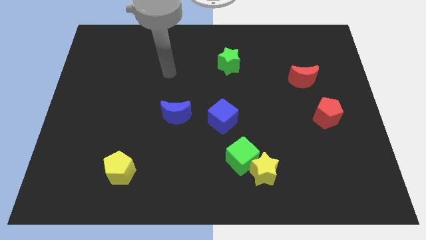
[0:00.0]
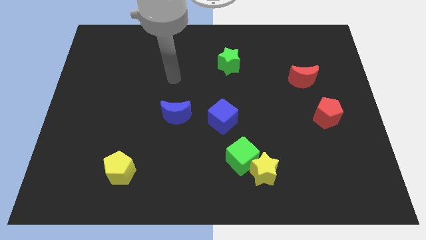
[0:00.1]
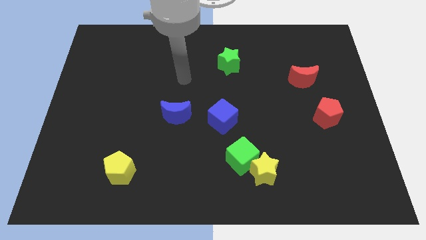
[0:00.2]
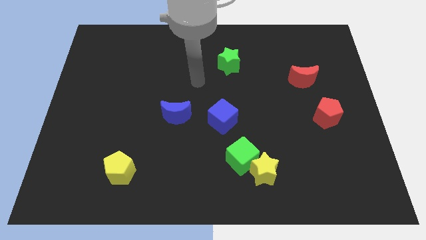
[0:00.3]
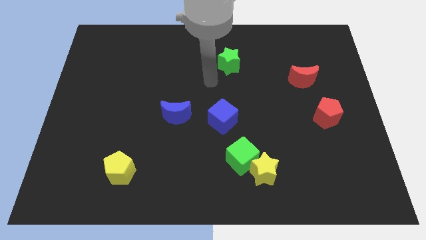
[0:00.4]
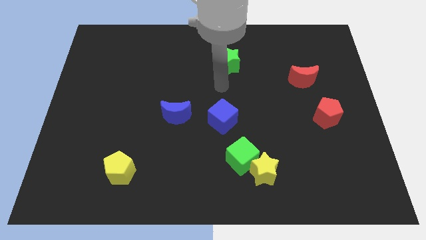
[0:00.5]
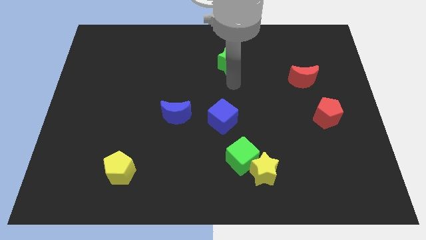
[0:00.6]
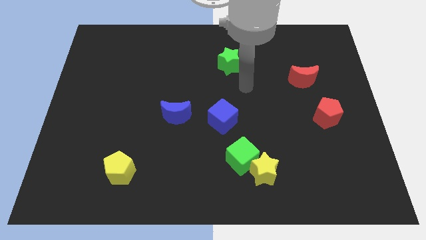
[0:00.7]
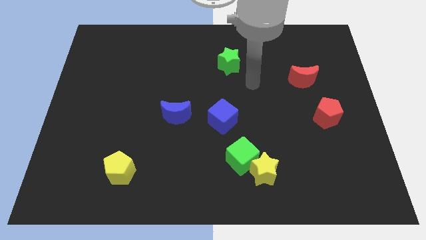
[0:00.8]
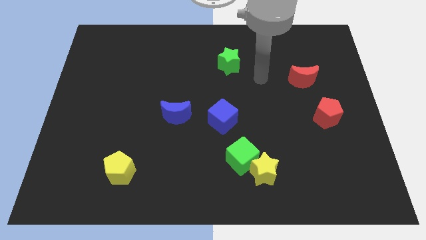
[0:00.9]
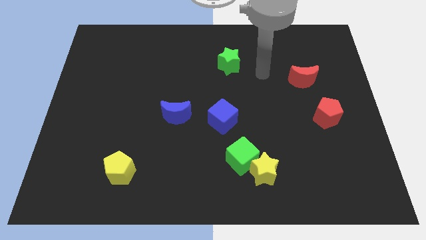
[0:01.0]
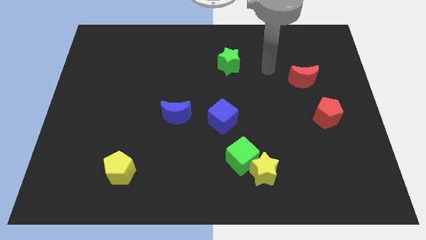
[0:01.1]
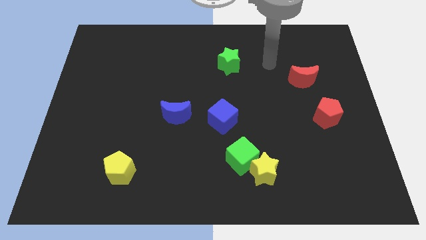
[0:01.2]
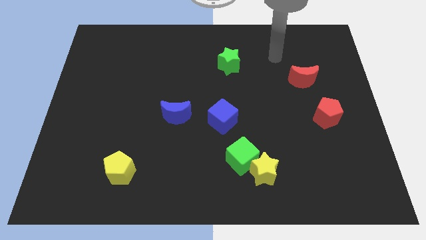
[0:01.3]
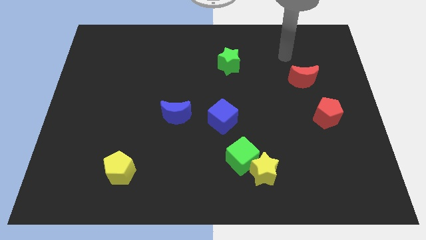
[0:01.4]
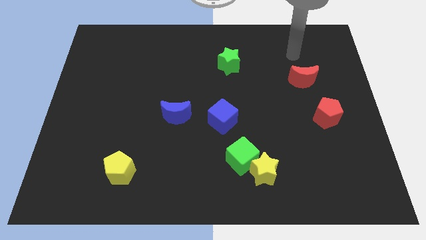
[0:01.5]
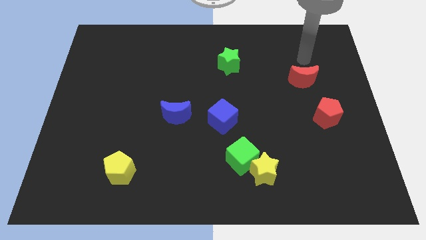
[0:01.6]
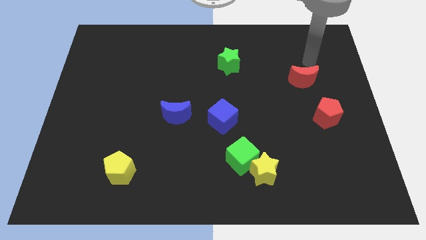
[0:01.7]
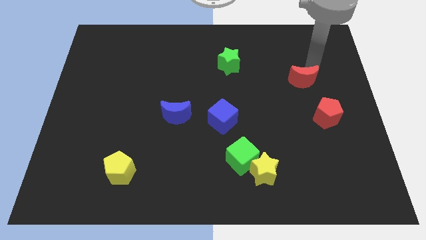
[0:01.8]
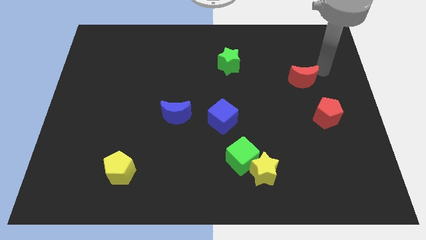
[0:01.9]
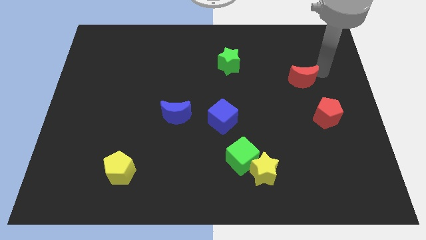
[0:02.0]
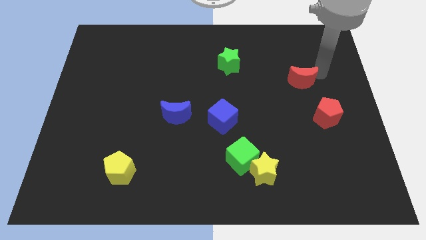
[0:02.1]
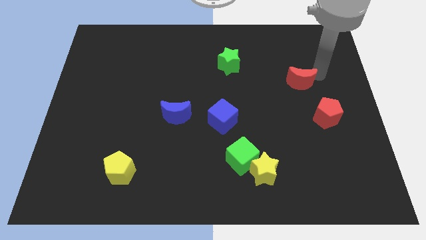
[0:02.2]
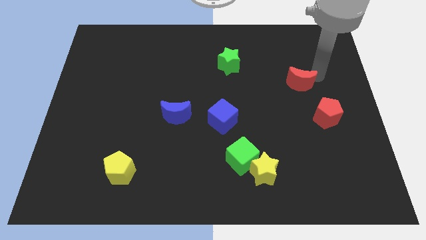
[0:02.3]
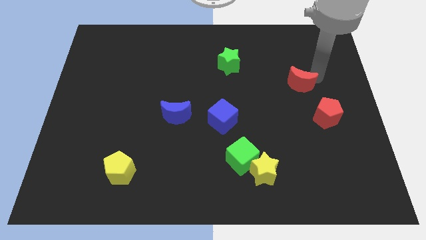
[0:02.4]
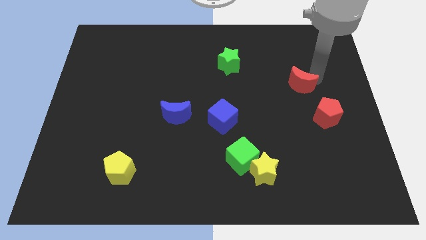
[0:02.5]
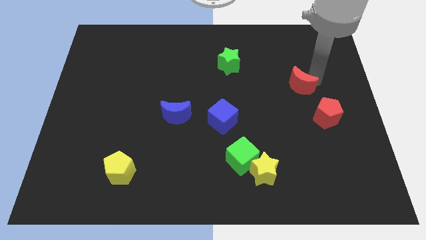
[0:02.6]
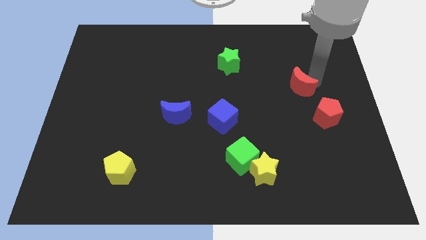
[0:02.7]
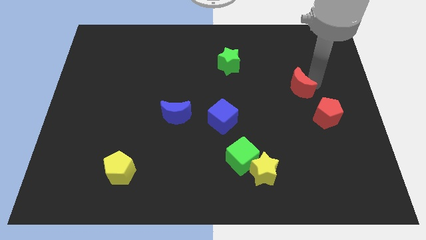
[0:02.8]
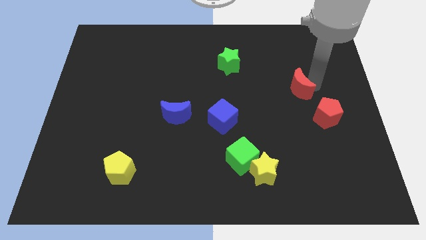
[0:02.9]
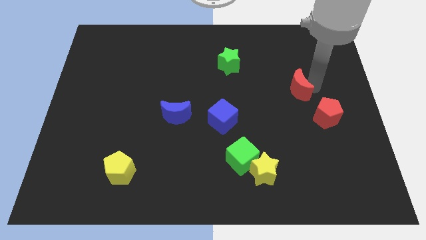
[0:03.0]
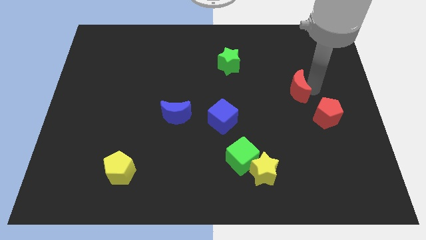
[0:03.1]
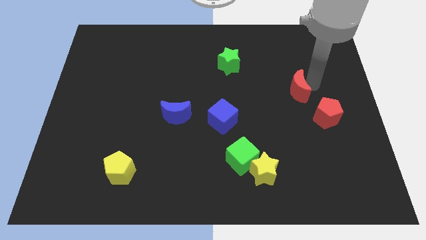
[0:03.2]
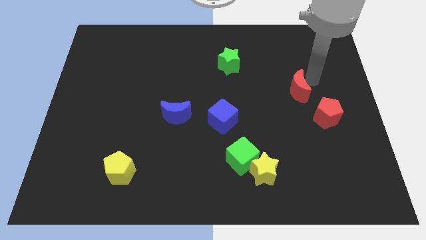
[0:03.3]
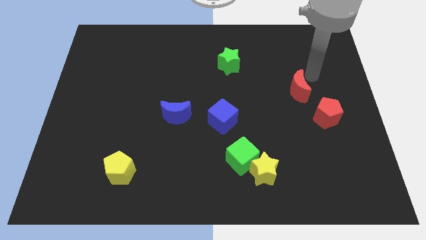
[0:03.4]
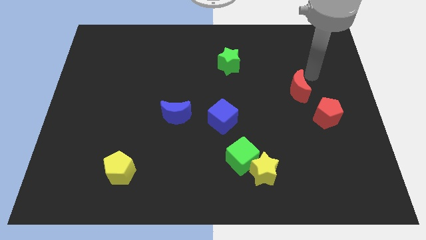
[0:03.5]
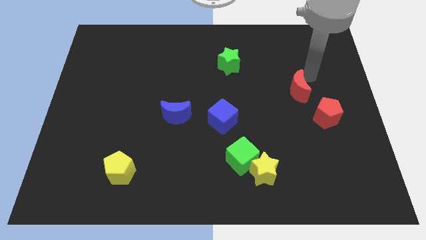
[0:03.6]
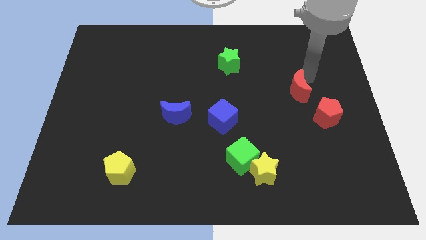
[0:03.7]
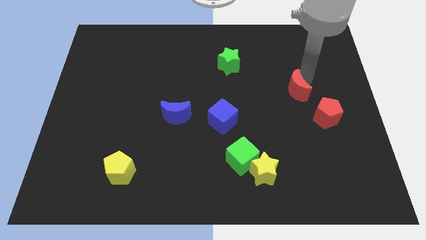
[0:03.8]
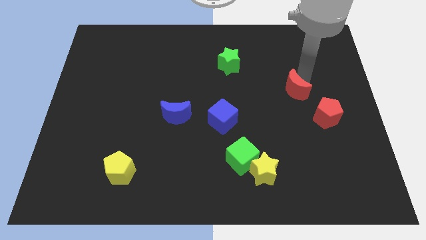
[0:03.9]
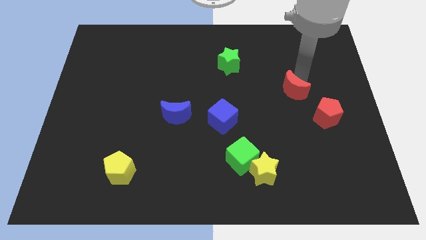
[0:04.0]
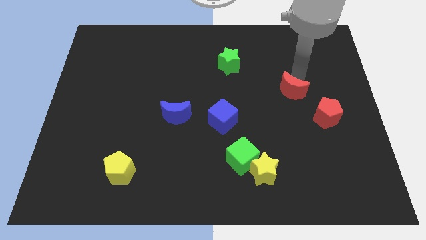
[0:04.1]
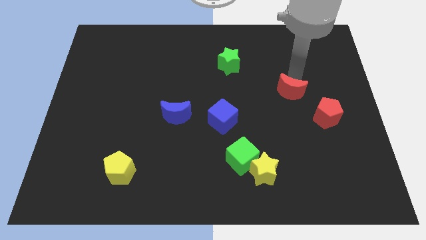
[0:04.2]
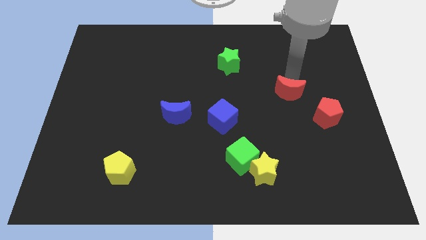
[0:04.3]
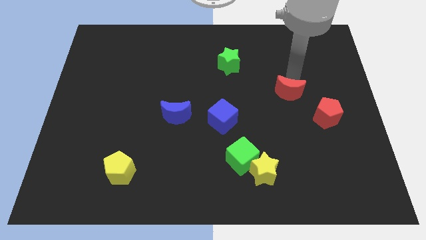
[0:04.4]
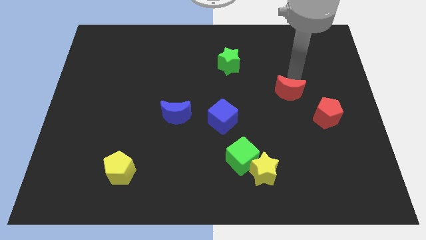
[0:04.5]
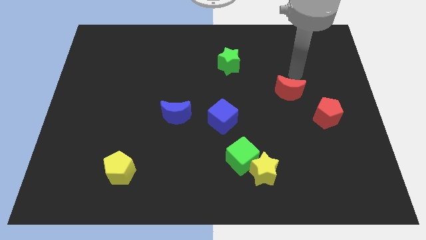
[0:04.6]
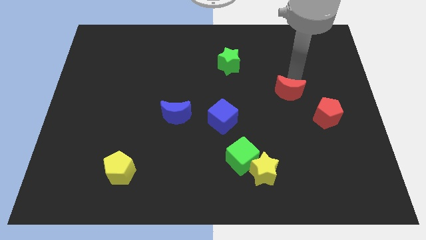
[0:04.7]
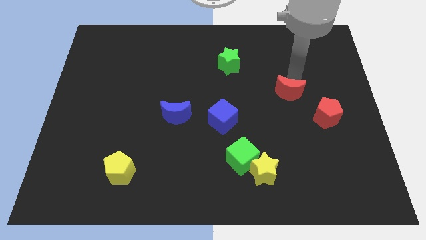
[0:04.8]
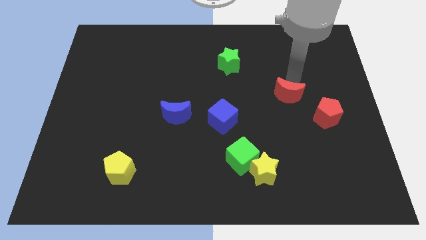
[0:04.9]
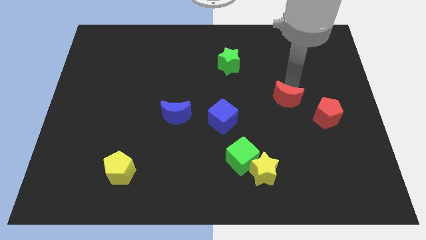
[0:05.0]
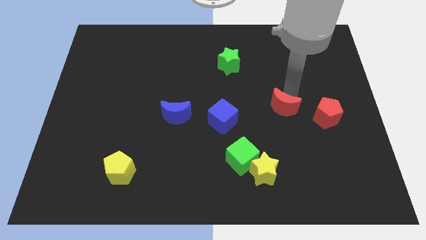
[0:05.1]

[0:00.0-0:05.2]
put the red moon to the right of the blue cube

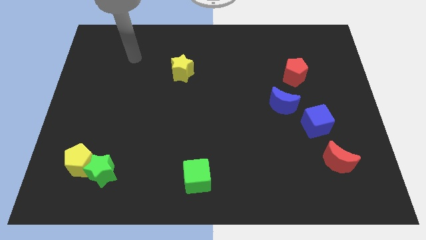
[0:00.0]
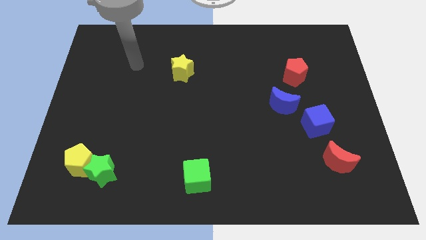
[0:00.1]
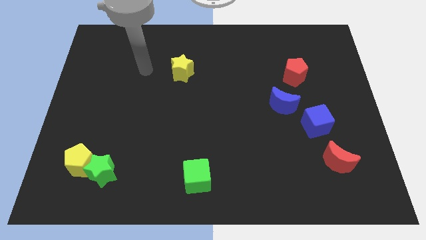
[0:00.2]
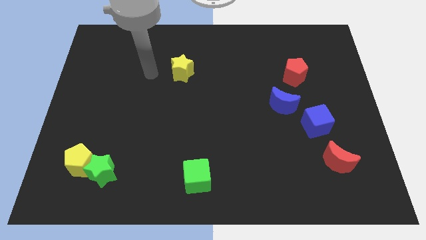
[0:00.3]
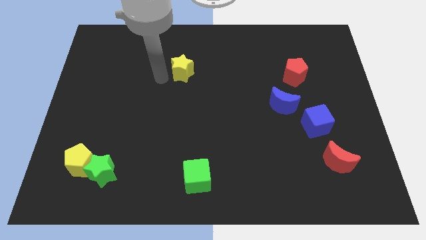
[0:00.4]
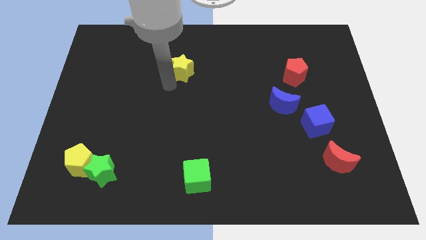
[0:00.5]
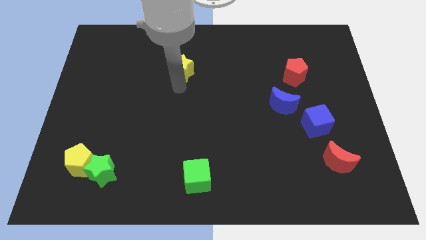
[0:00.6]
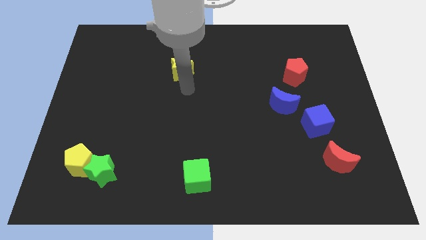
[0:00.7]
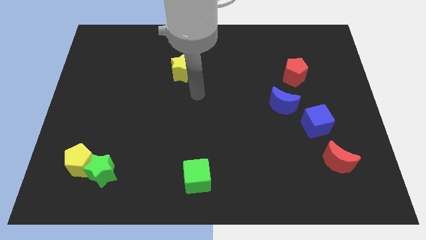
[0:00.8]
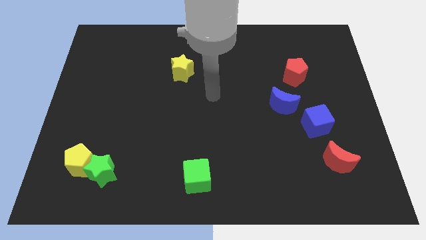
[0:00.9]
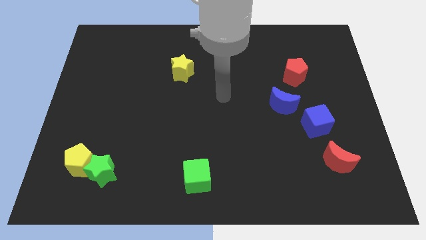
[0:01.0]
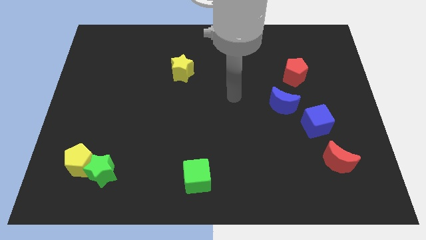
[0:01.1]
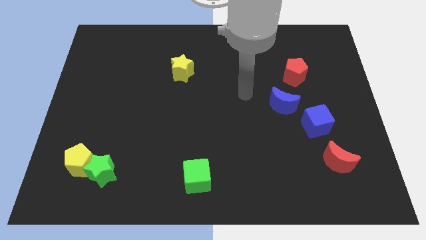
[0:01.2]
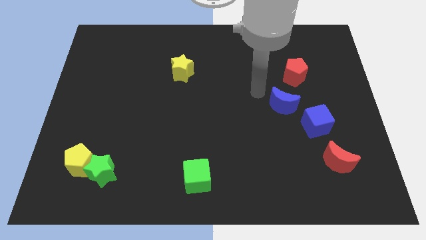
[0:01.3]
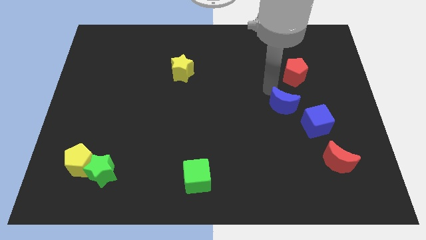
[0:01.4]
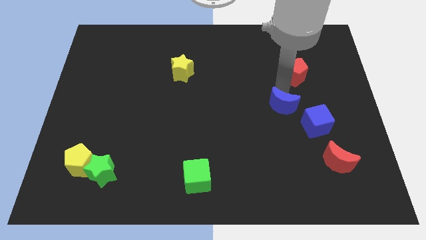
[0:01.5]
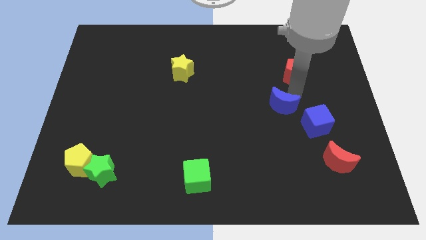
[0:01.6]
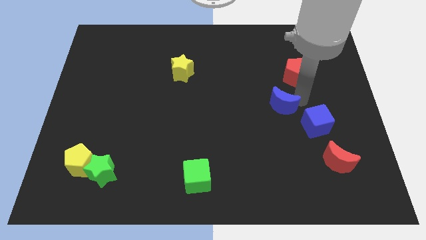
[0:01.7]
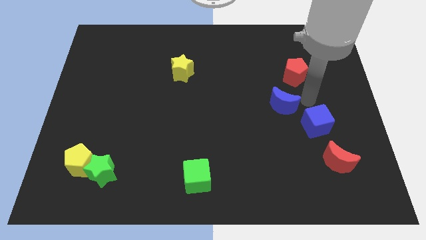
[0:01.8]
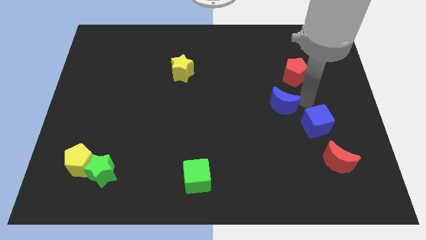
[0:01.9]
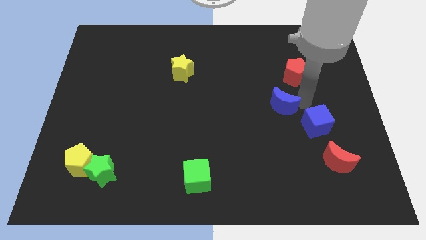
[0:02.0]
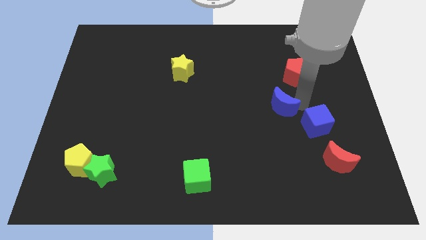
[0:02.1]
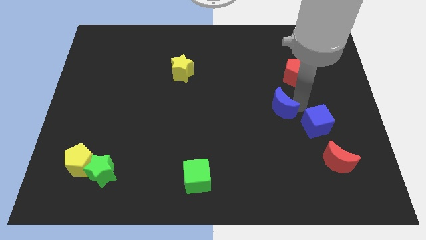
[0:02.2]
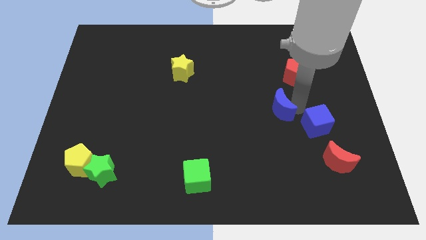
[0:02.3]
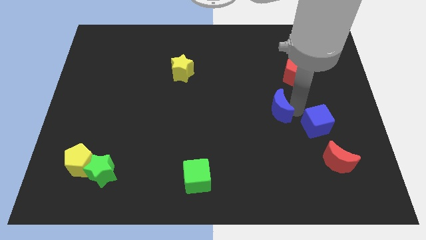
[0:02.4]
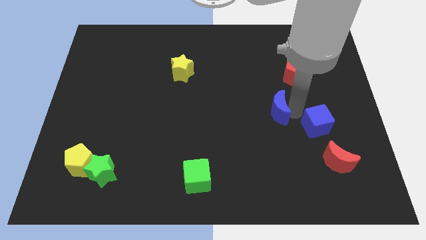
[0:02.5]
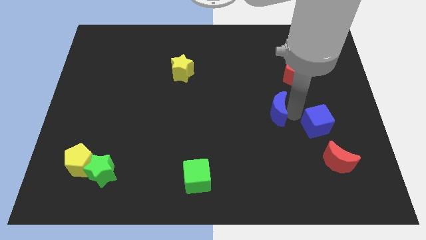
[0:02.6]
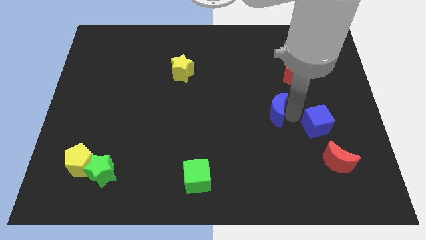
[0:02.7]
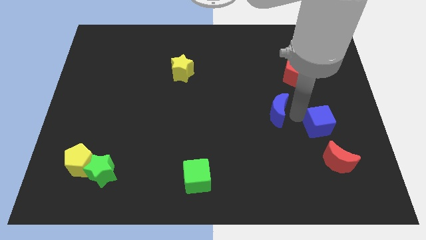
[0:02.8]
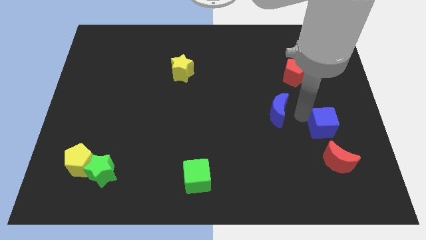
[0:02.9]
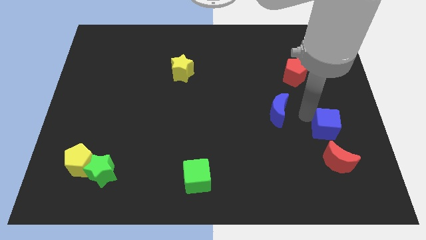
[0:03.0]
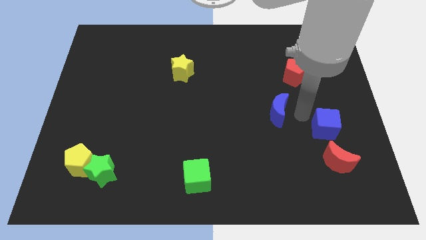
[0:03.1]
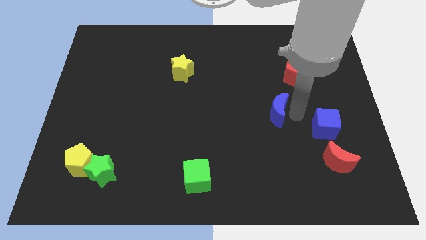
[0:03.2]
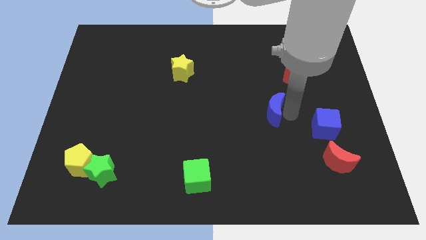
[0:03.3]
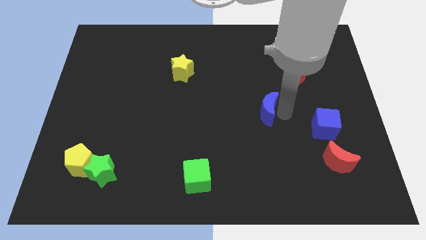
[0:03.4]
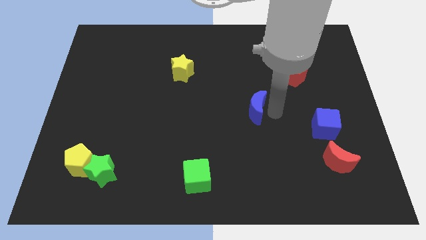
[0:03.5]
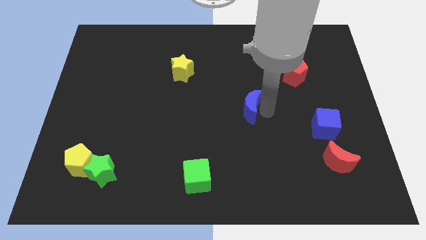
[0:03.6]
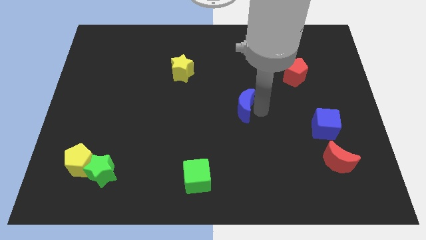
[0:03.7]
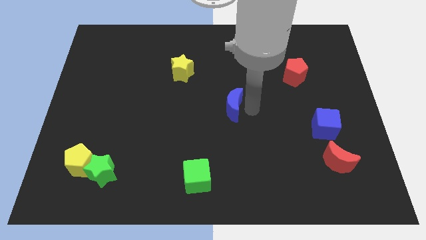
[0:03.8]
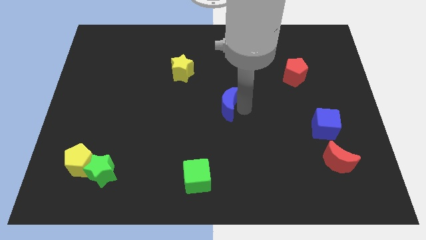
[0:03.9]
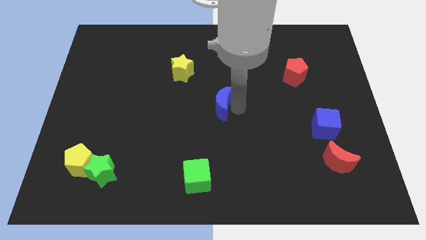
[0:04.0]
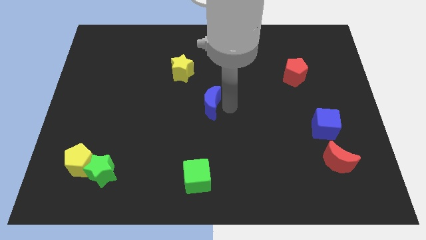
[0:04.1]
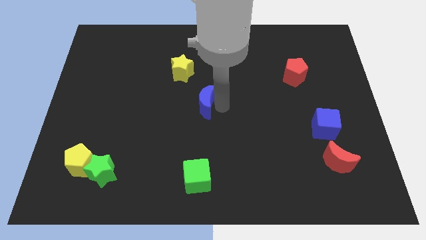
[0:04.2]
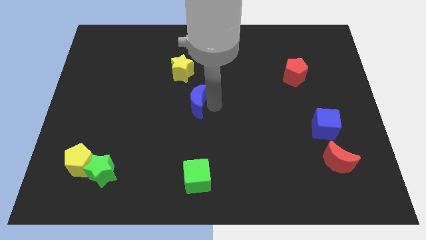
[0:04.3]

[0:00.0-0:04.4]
push the blue moon to the bottom side of the yellow star
